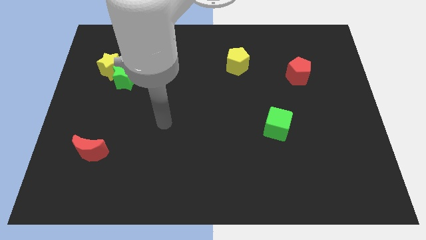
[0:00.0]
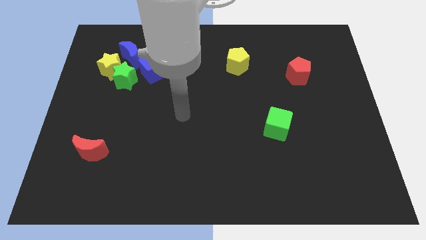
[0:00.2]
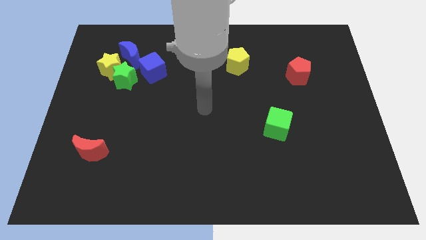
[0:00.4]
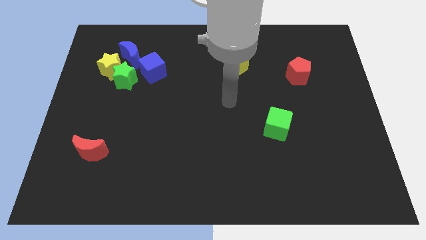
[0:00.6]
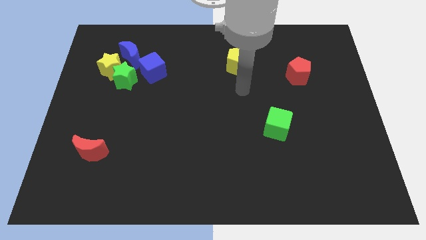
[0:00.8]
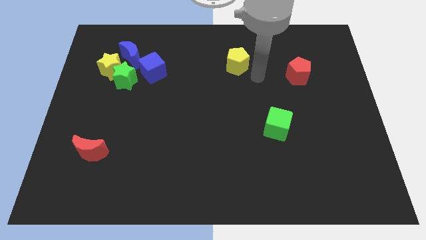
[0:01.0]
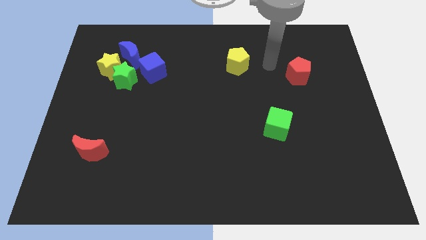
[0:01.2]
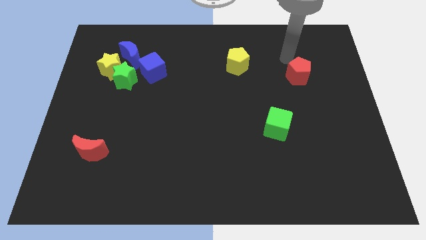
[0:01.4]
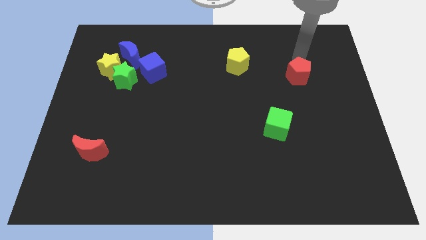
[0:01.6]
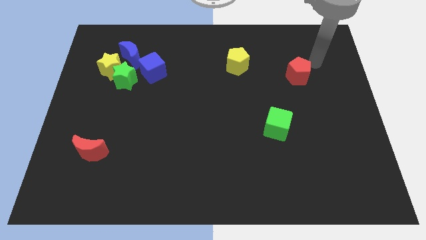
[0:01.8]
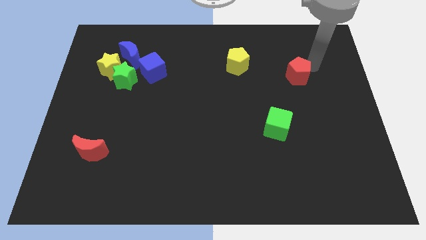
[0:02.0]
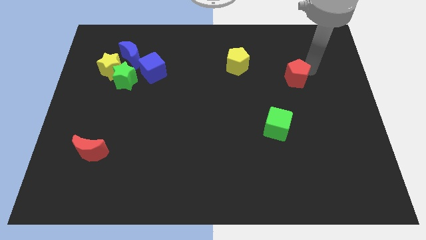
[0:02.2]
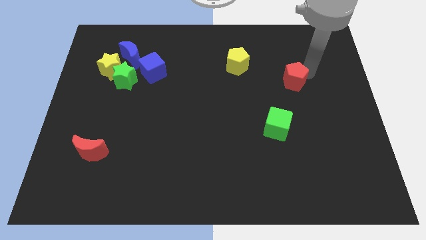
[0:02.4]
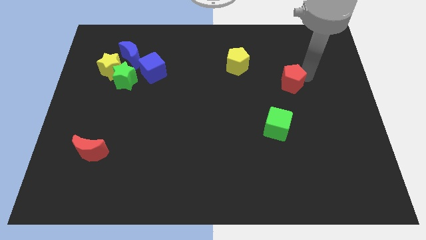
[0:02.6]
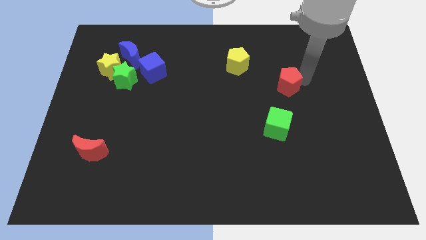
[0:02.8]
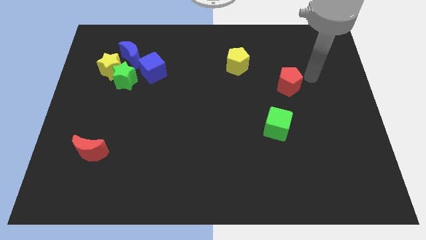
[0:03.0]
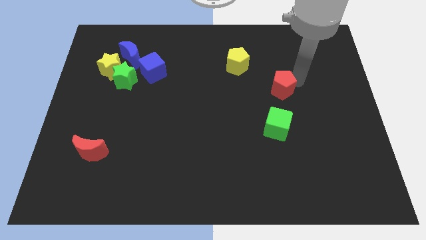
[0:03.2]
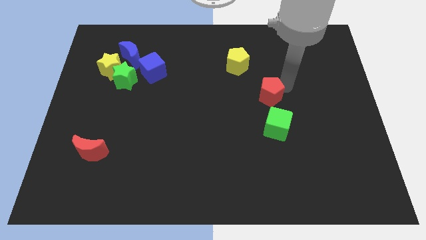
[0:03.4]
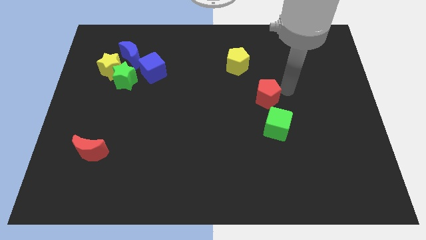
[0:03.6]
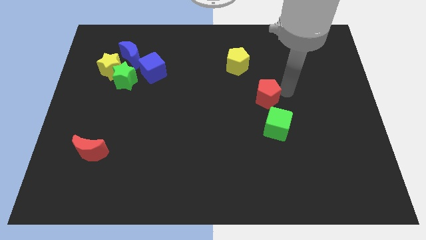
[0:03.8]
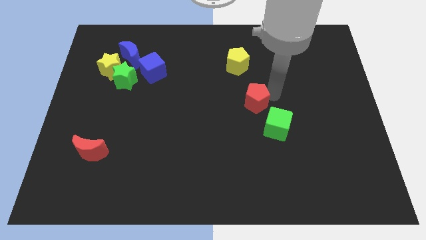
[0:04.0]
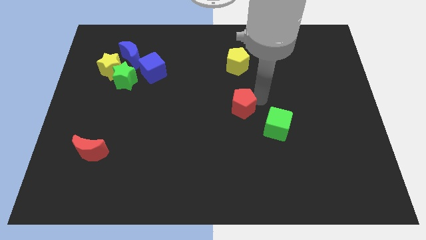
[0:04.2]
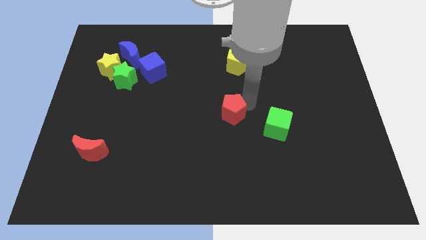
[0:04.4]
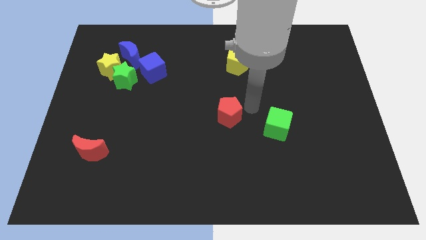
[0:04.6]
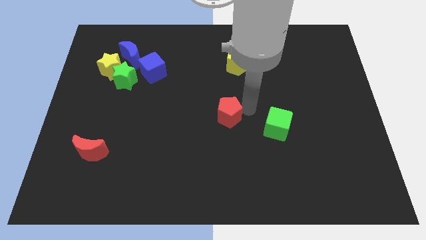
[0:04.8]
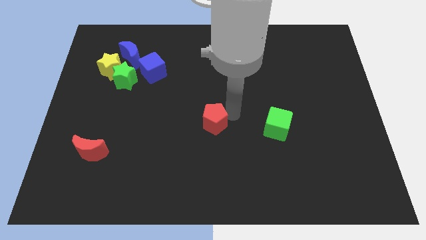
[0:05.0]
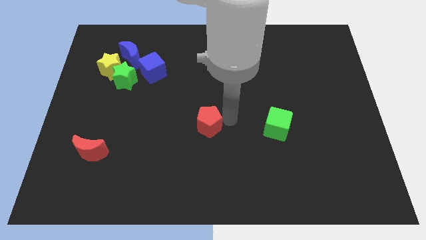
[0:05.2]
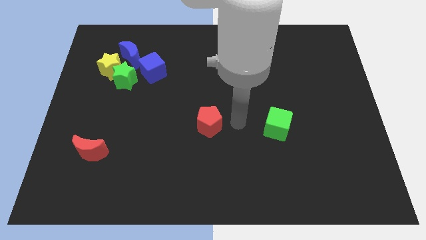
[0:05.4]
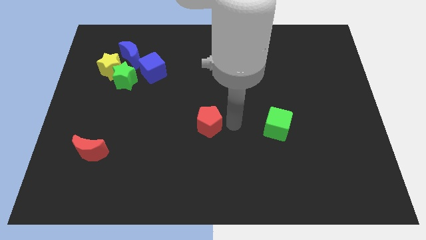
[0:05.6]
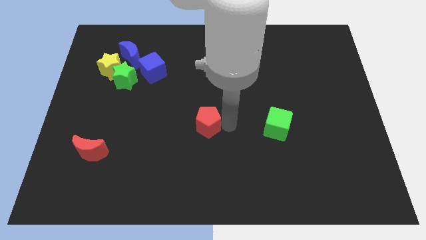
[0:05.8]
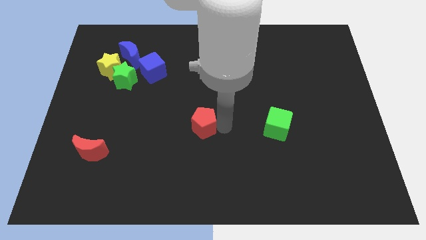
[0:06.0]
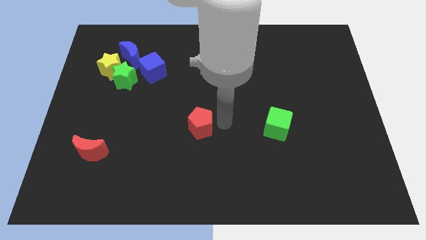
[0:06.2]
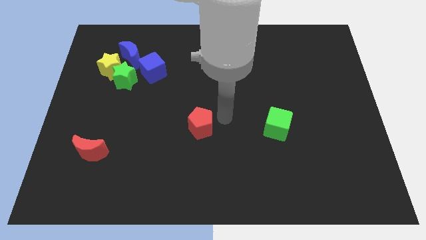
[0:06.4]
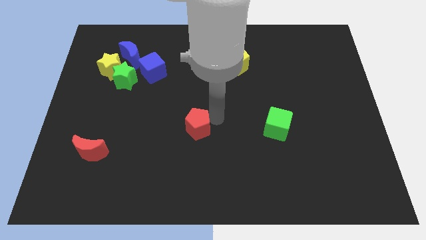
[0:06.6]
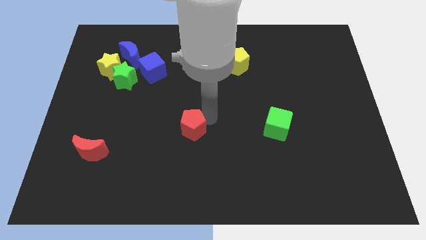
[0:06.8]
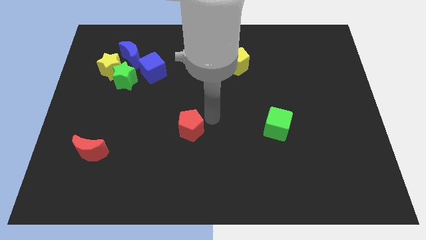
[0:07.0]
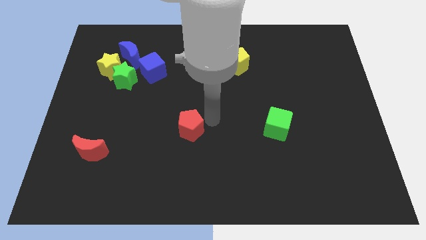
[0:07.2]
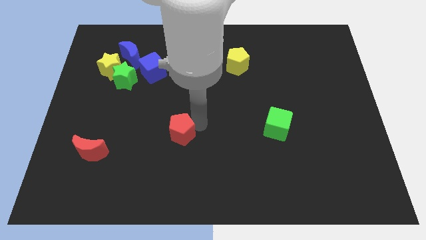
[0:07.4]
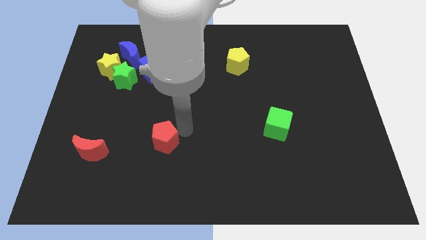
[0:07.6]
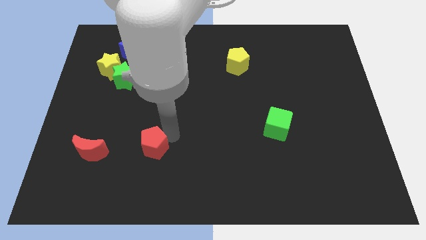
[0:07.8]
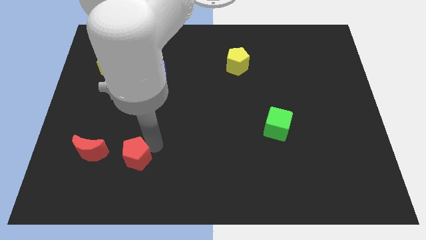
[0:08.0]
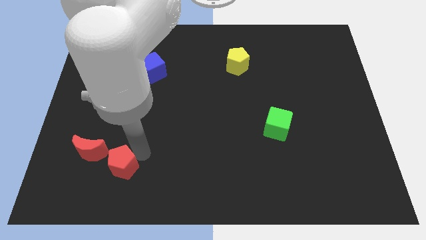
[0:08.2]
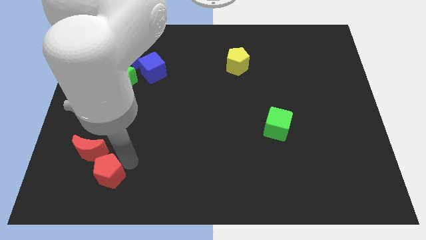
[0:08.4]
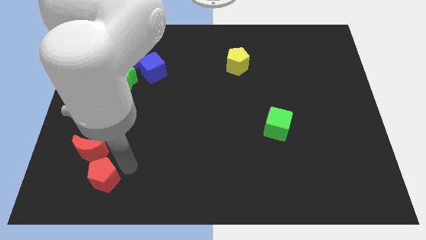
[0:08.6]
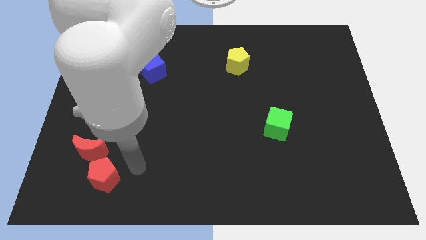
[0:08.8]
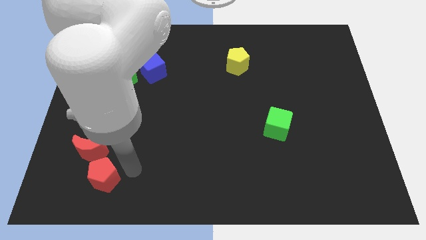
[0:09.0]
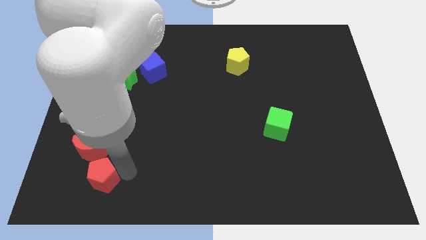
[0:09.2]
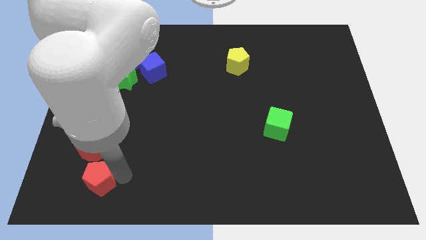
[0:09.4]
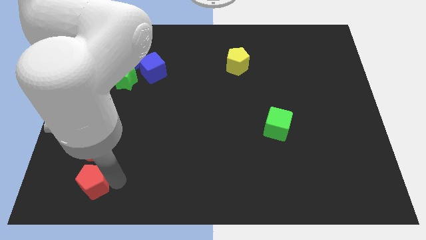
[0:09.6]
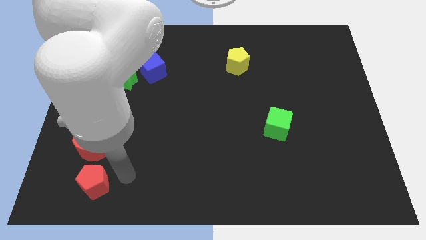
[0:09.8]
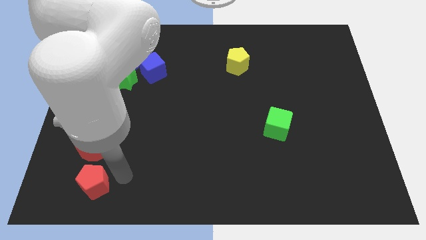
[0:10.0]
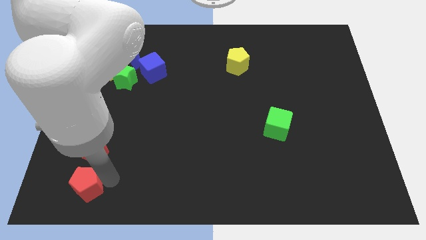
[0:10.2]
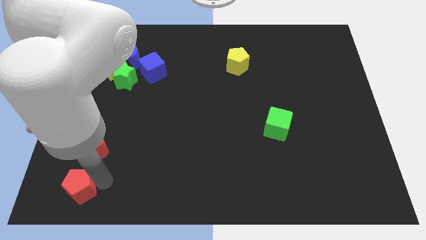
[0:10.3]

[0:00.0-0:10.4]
slide the red pentagon to the bottom left corner

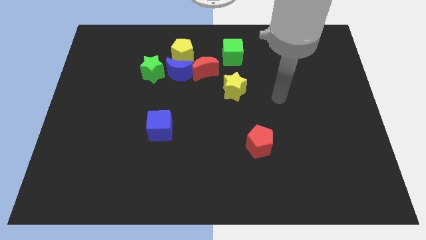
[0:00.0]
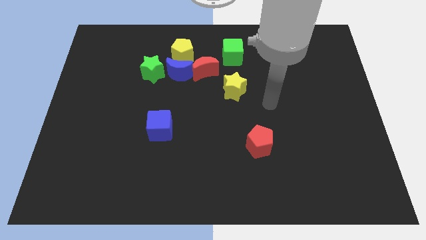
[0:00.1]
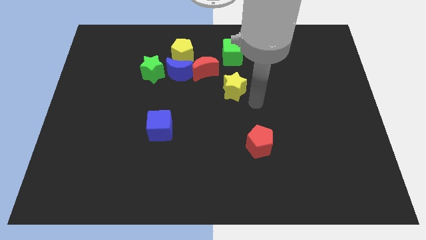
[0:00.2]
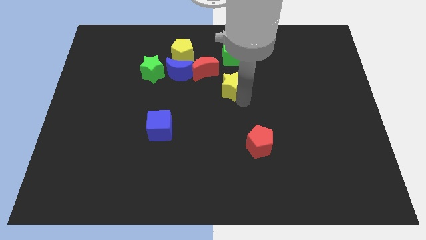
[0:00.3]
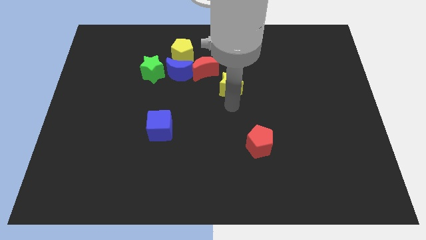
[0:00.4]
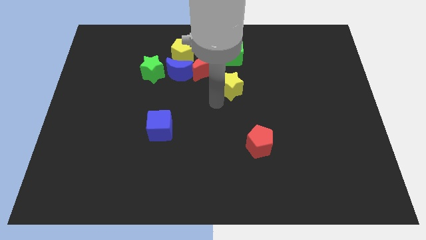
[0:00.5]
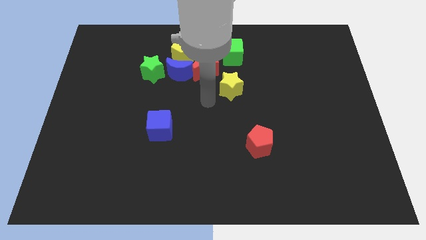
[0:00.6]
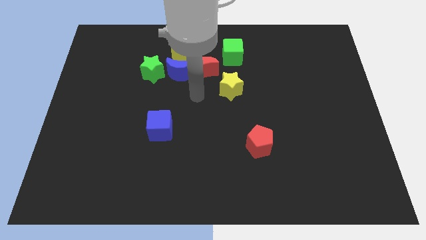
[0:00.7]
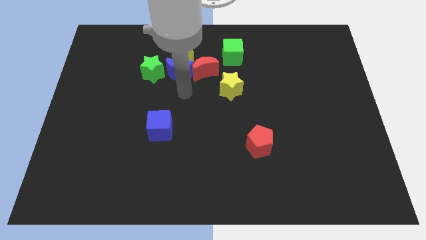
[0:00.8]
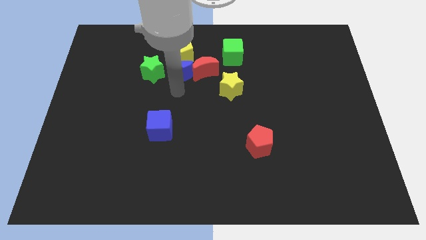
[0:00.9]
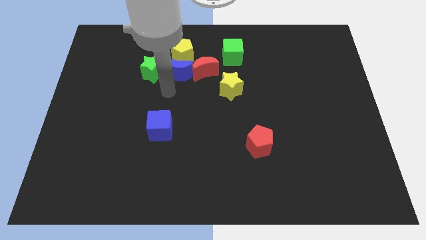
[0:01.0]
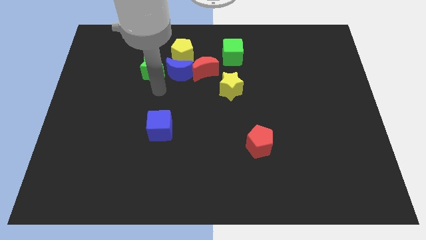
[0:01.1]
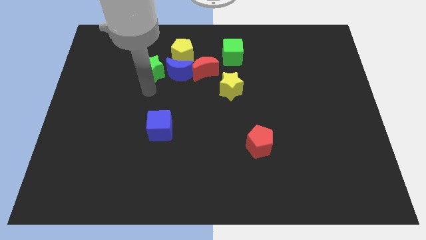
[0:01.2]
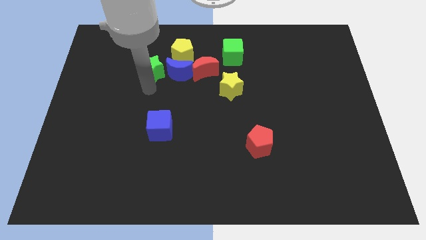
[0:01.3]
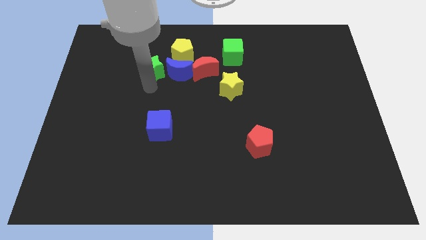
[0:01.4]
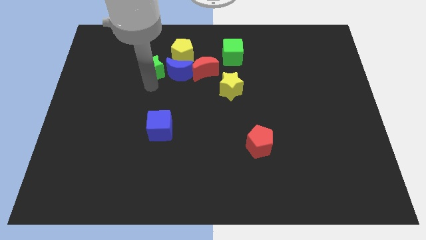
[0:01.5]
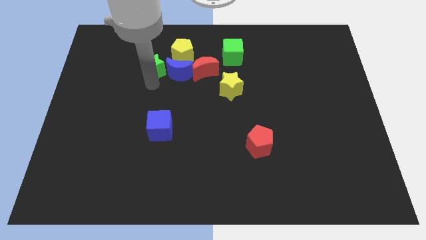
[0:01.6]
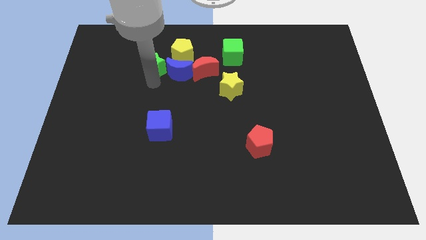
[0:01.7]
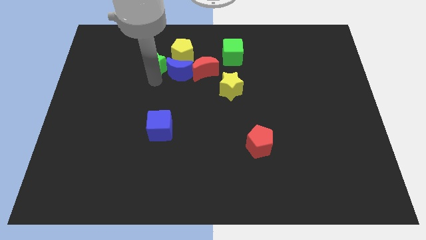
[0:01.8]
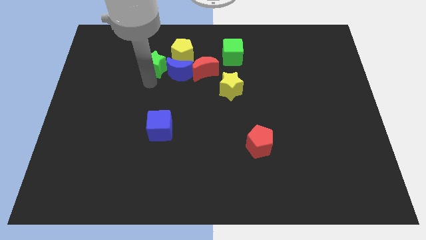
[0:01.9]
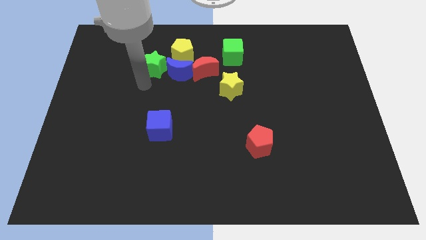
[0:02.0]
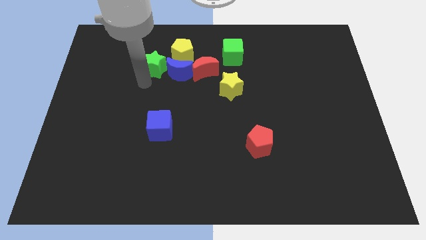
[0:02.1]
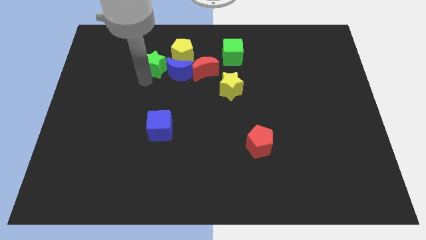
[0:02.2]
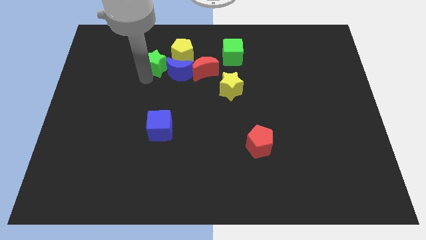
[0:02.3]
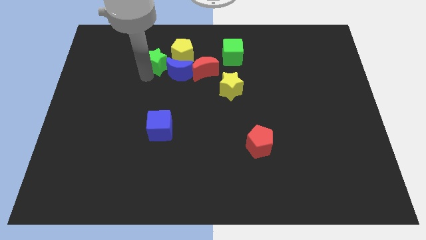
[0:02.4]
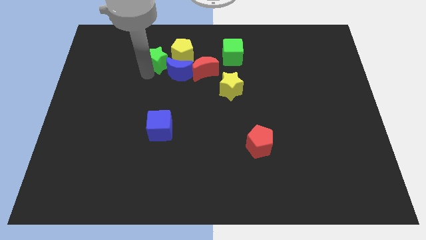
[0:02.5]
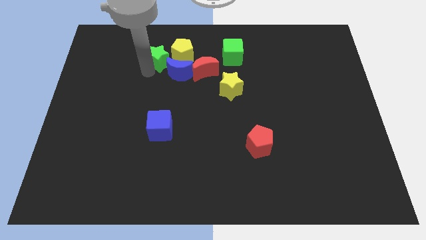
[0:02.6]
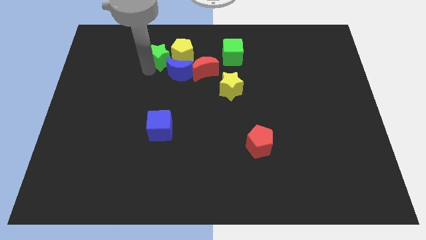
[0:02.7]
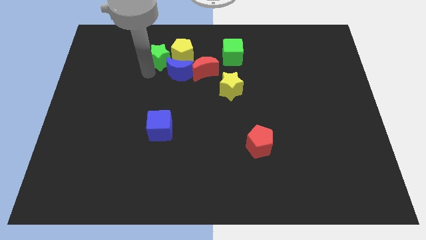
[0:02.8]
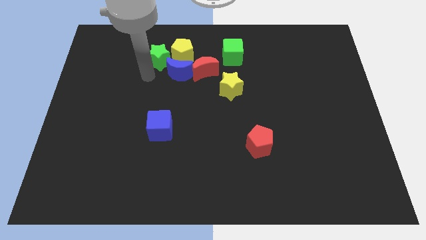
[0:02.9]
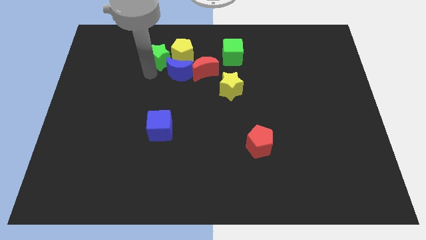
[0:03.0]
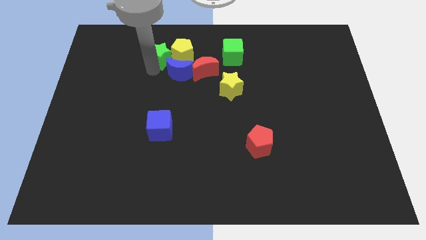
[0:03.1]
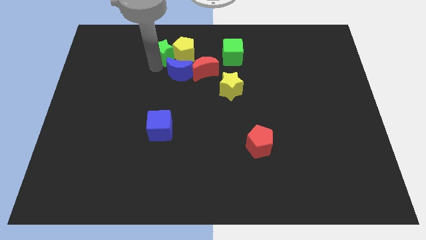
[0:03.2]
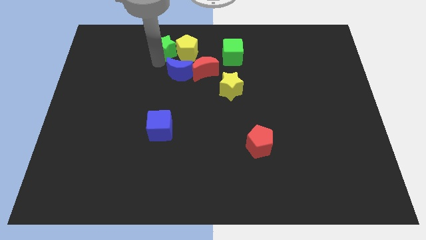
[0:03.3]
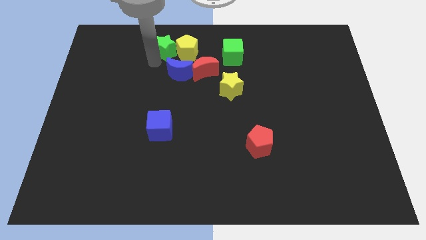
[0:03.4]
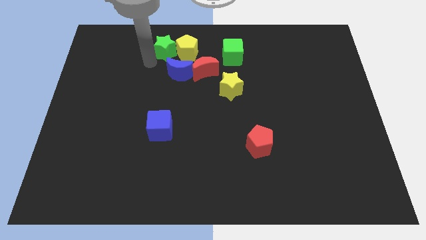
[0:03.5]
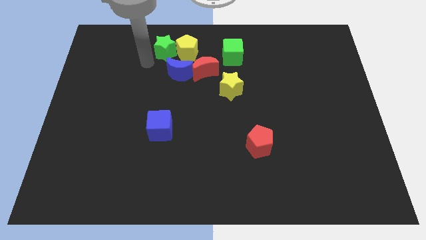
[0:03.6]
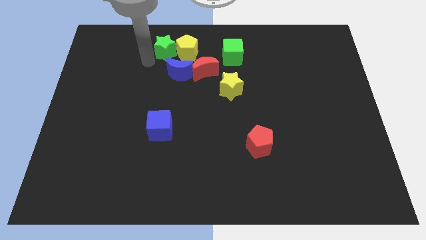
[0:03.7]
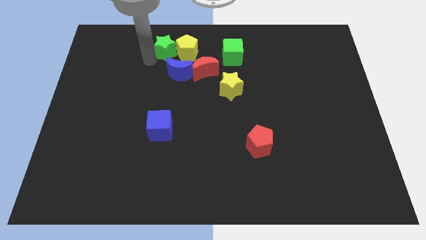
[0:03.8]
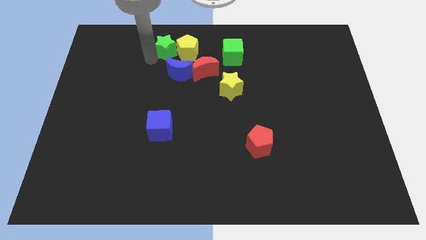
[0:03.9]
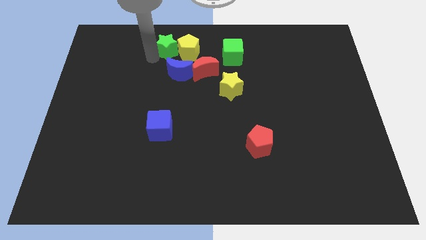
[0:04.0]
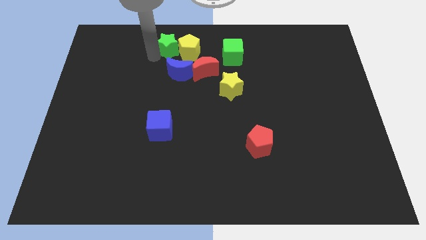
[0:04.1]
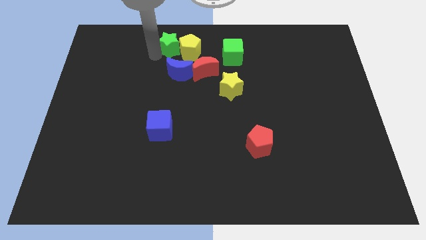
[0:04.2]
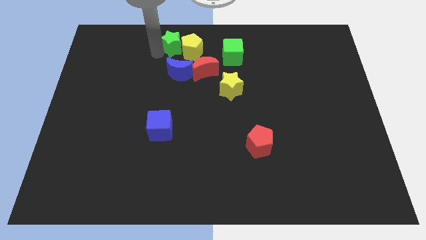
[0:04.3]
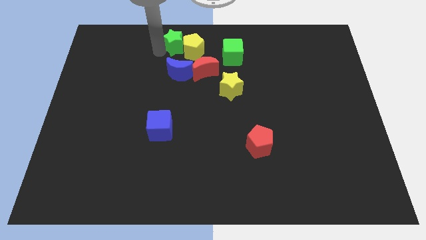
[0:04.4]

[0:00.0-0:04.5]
slide the green star to the top side
